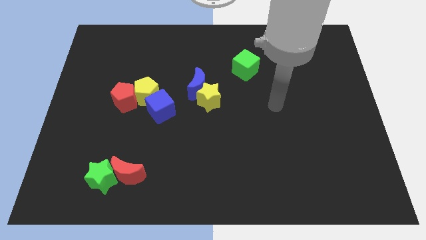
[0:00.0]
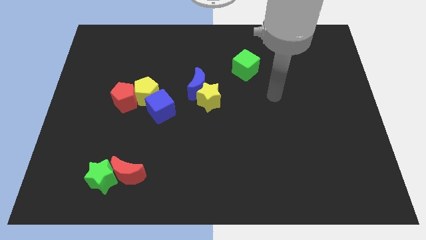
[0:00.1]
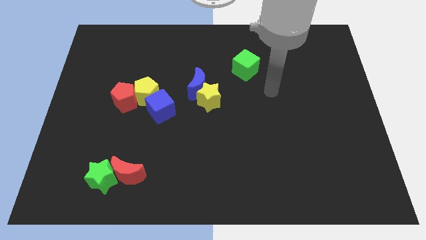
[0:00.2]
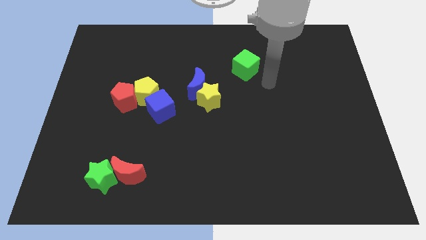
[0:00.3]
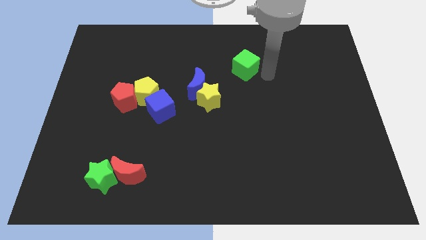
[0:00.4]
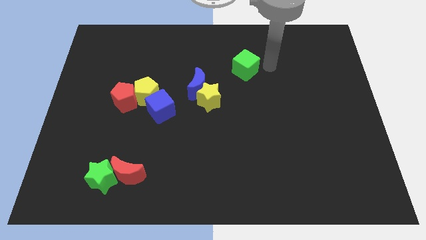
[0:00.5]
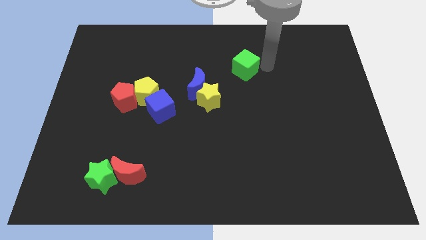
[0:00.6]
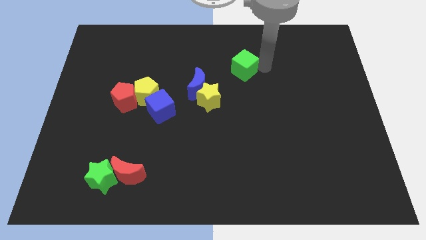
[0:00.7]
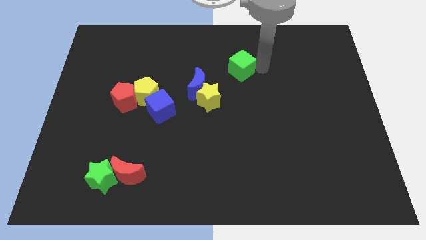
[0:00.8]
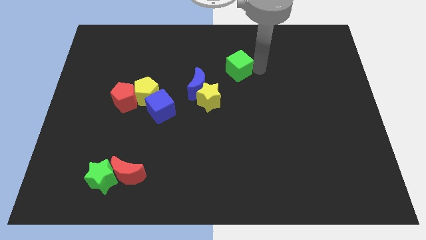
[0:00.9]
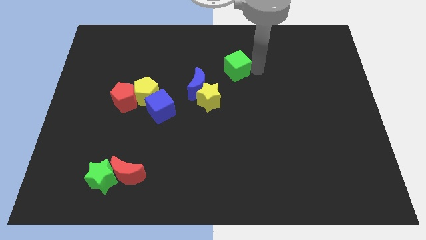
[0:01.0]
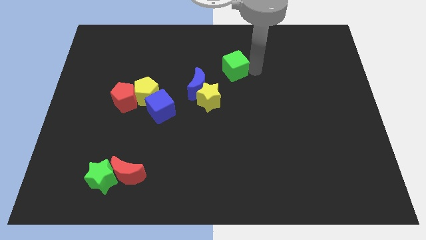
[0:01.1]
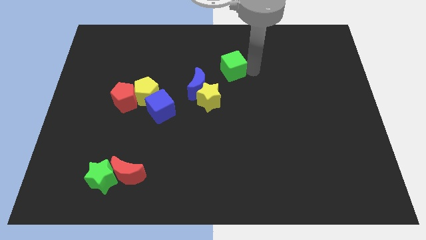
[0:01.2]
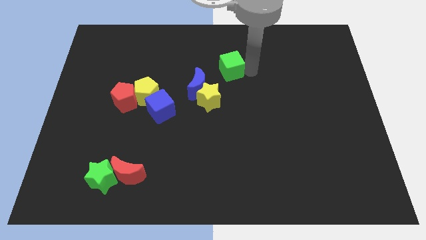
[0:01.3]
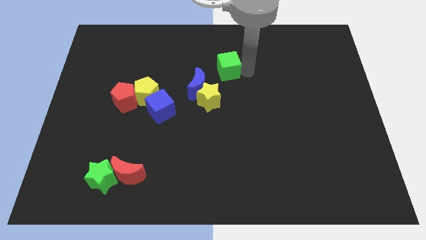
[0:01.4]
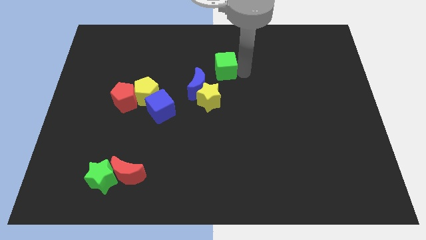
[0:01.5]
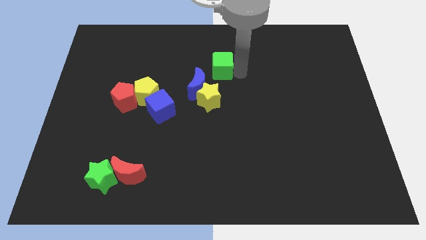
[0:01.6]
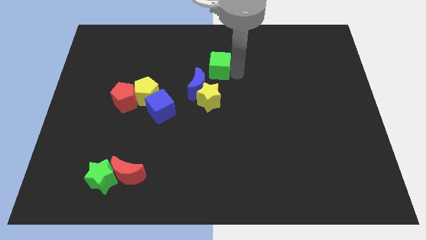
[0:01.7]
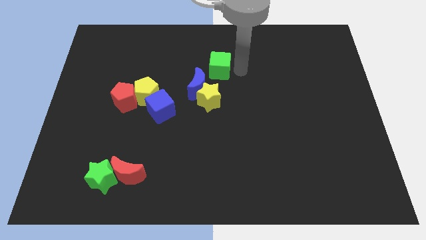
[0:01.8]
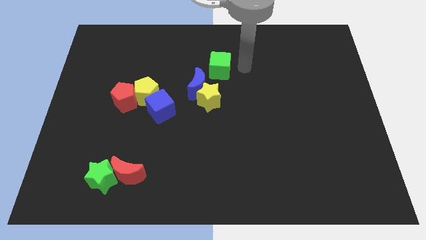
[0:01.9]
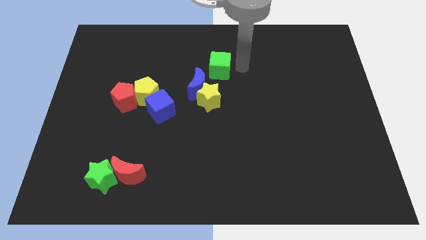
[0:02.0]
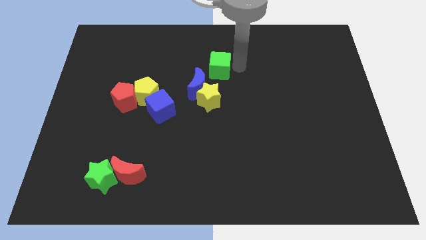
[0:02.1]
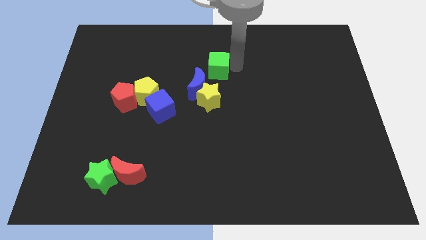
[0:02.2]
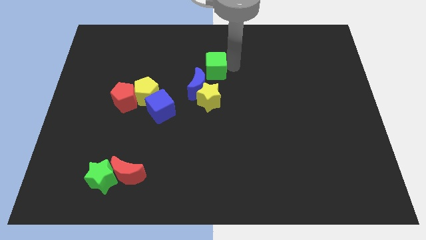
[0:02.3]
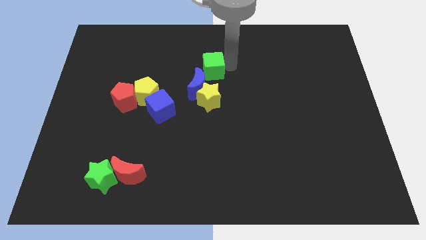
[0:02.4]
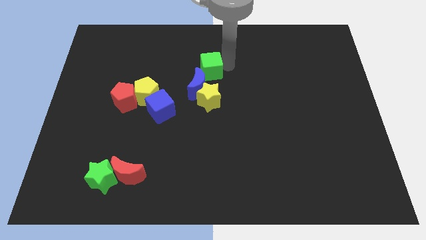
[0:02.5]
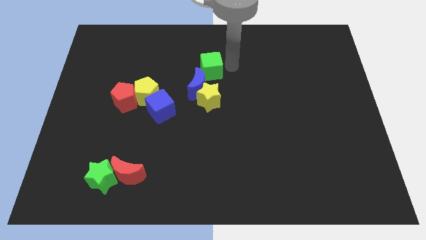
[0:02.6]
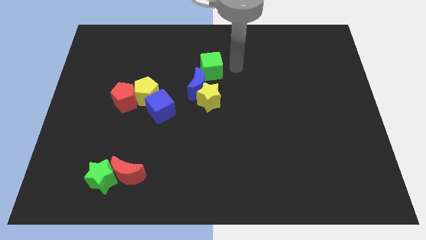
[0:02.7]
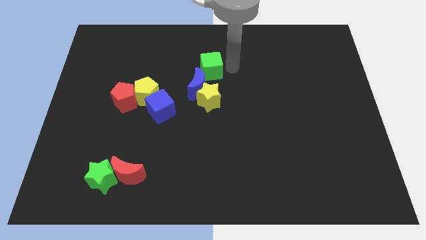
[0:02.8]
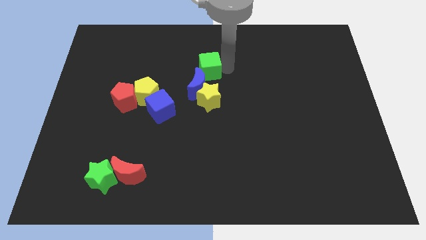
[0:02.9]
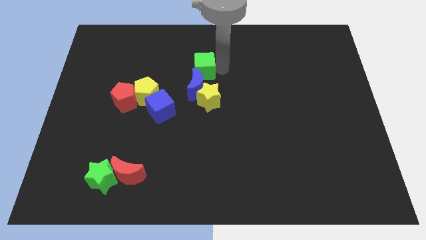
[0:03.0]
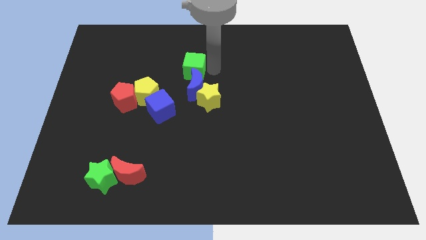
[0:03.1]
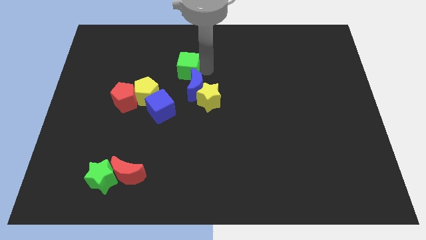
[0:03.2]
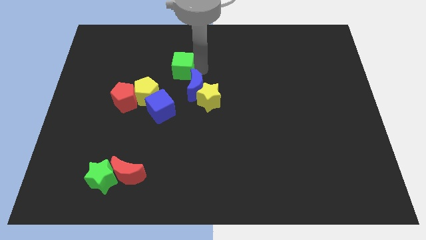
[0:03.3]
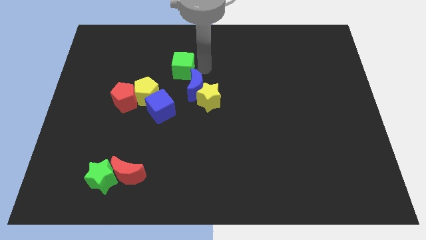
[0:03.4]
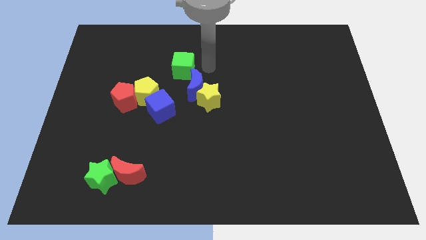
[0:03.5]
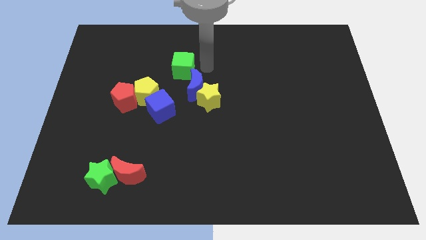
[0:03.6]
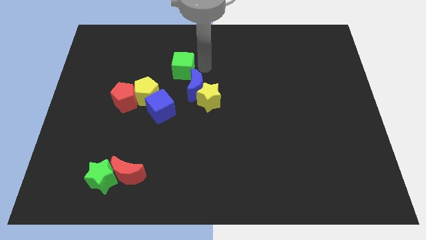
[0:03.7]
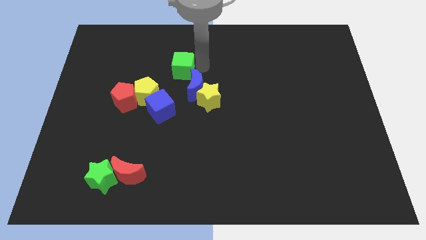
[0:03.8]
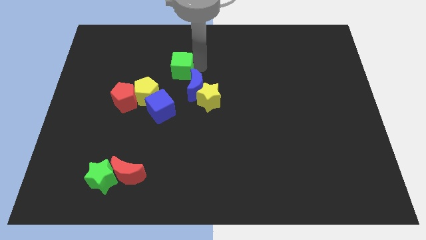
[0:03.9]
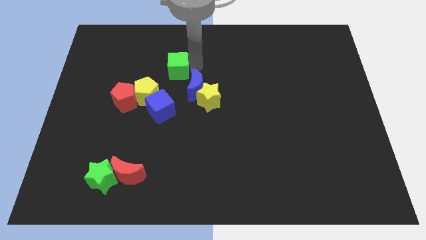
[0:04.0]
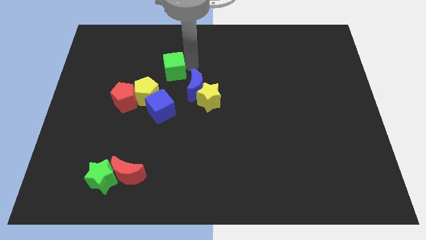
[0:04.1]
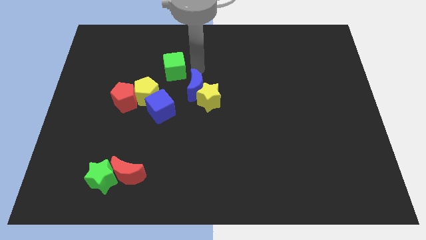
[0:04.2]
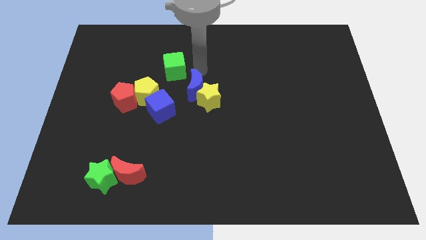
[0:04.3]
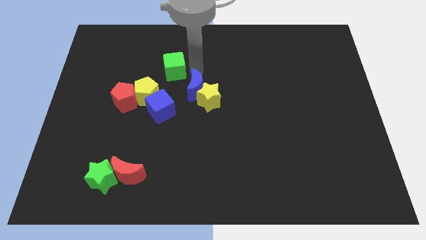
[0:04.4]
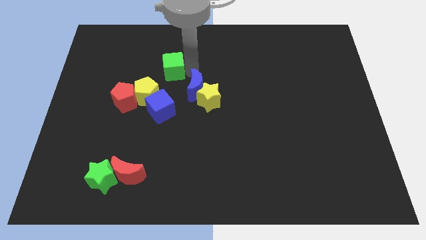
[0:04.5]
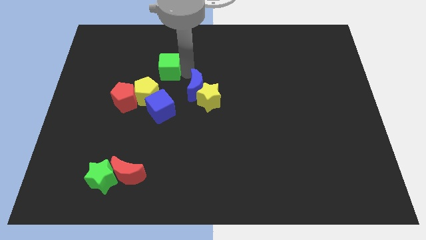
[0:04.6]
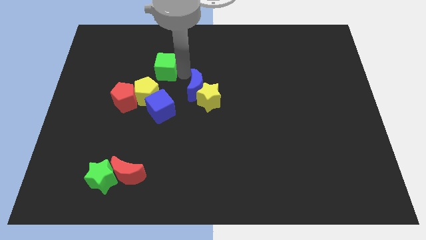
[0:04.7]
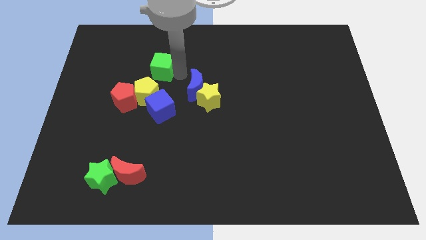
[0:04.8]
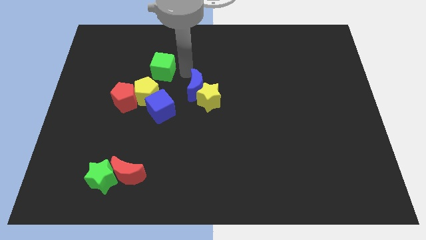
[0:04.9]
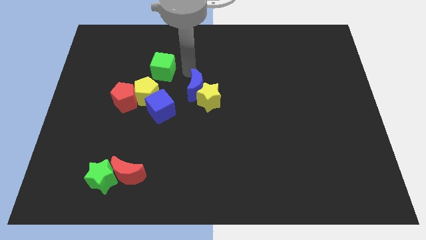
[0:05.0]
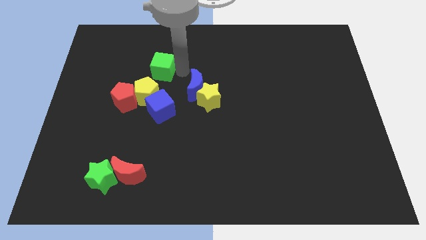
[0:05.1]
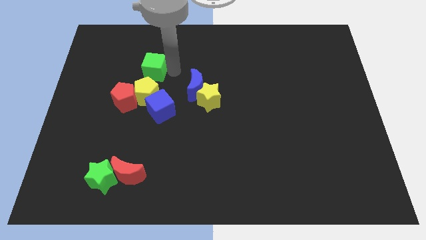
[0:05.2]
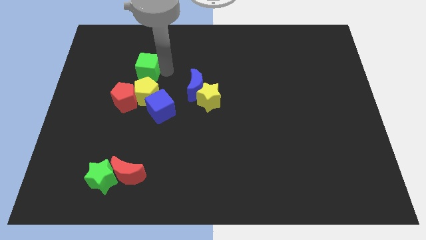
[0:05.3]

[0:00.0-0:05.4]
slide the green cube to the top side of the red pentagon

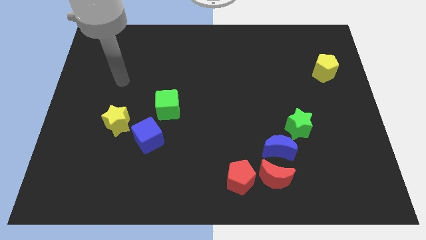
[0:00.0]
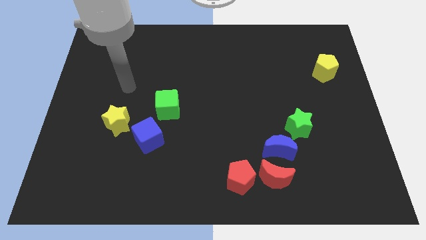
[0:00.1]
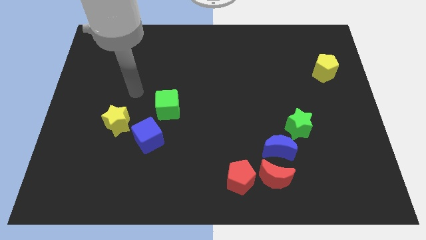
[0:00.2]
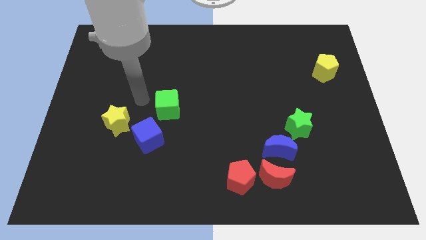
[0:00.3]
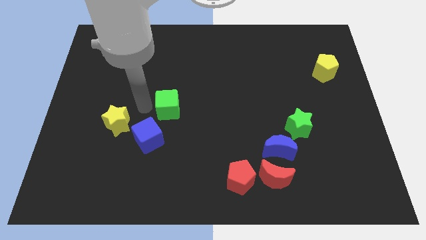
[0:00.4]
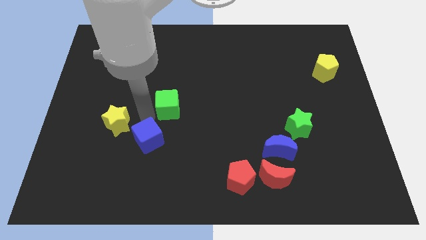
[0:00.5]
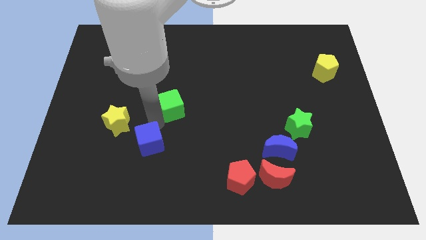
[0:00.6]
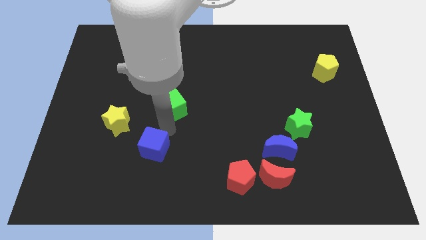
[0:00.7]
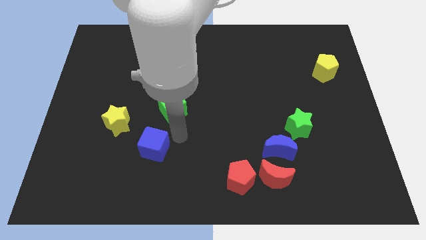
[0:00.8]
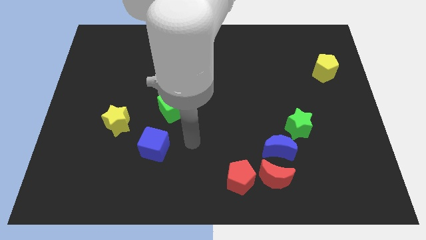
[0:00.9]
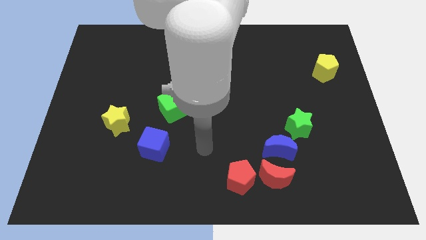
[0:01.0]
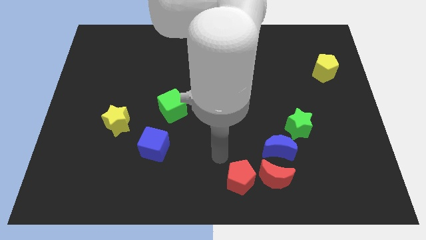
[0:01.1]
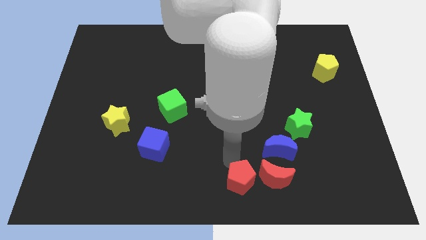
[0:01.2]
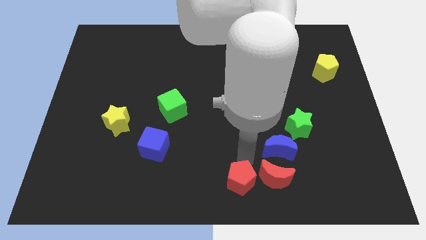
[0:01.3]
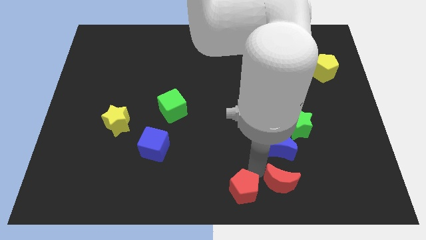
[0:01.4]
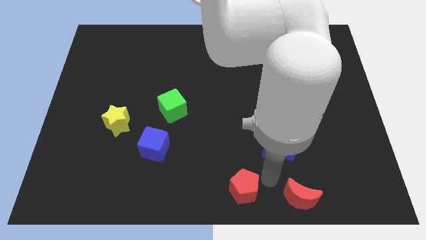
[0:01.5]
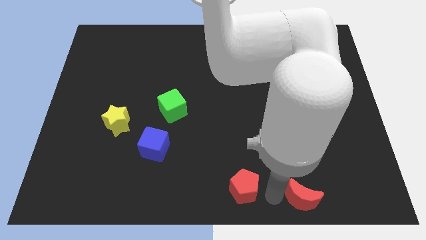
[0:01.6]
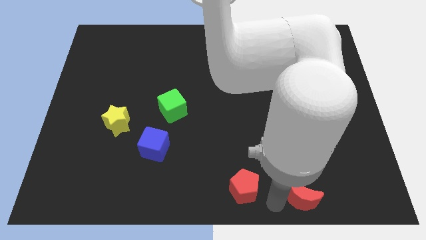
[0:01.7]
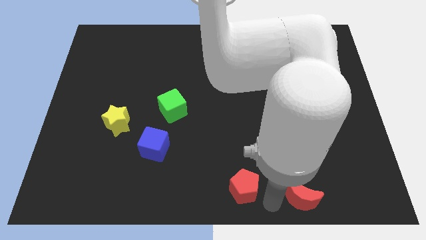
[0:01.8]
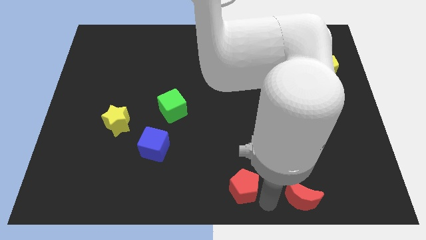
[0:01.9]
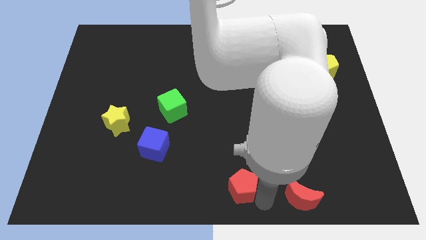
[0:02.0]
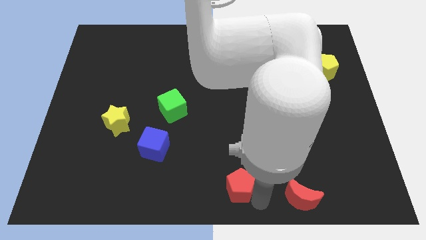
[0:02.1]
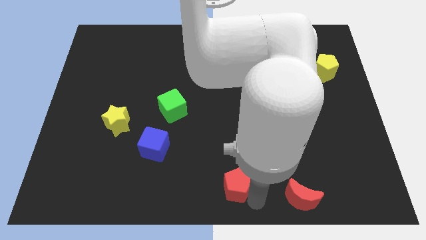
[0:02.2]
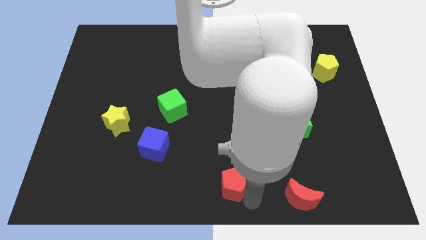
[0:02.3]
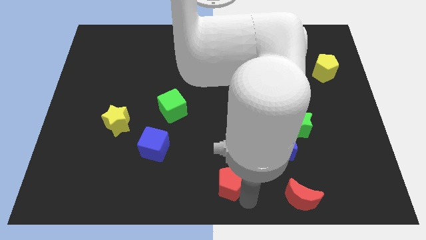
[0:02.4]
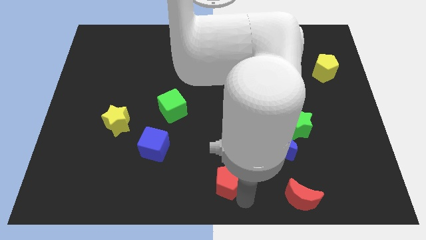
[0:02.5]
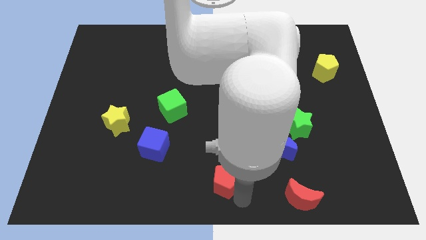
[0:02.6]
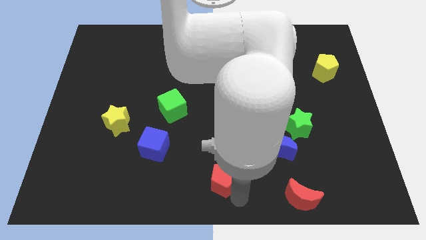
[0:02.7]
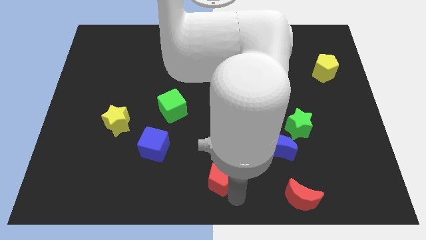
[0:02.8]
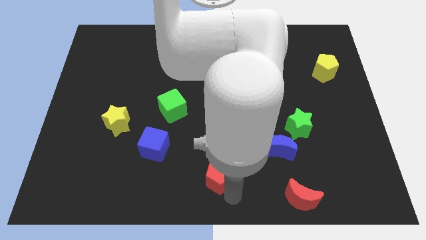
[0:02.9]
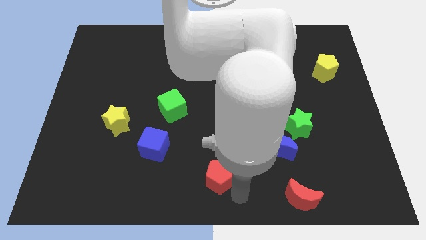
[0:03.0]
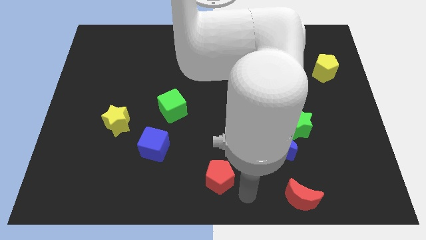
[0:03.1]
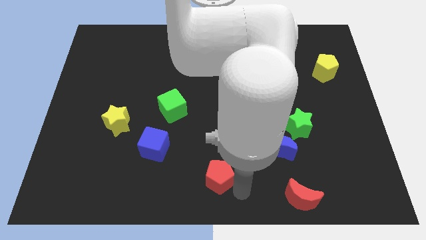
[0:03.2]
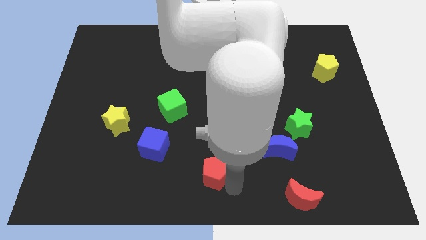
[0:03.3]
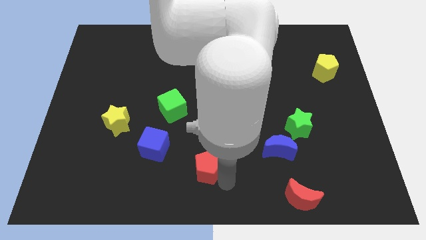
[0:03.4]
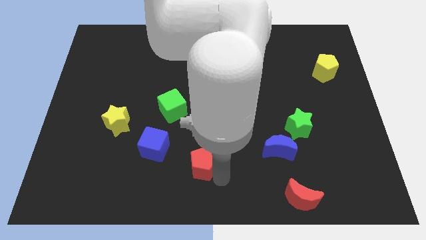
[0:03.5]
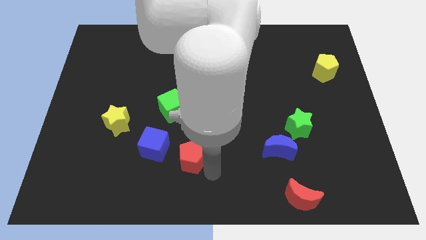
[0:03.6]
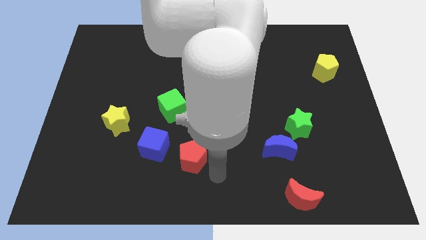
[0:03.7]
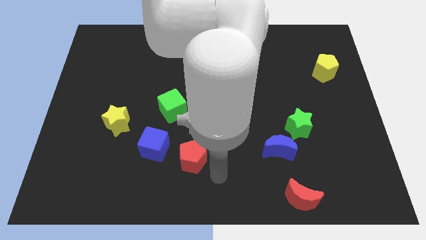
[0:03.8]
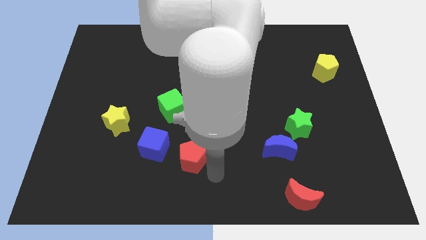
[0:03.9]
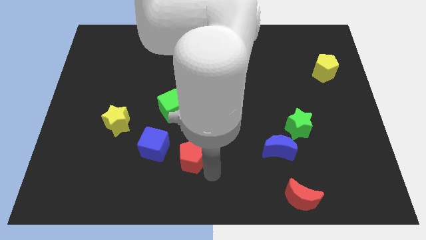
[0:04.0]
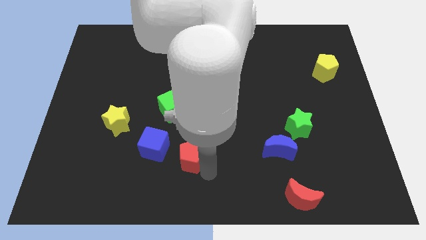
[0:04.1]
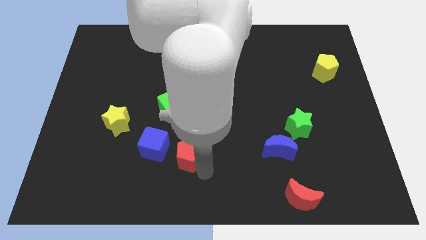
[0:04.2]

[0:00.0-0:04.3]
push the red pentagon to the bottom of the green cube
